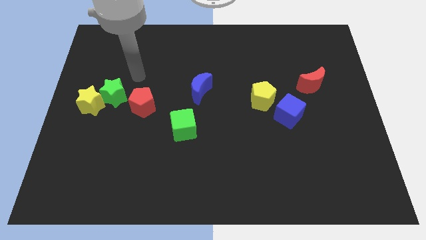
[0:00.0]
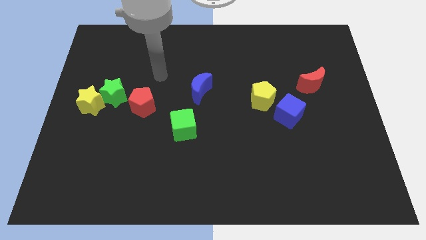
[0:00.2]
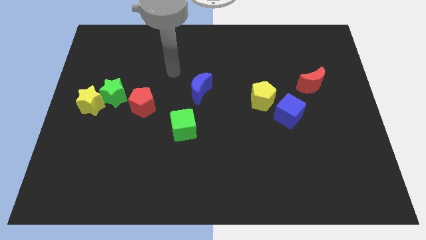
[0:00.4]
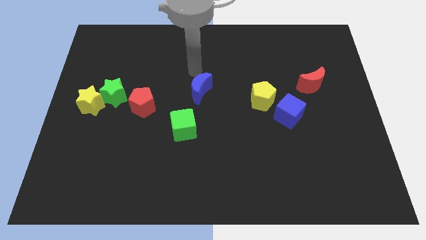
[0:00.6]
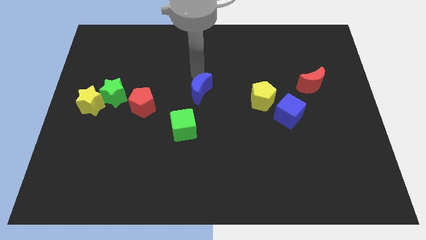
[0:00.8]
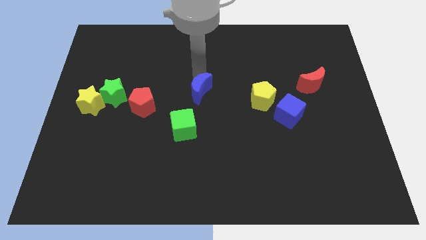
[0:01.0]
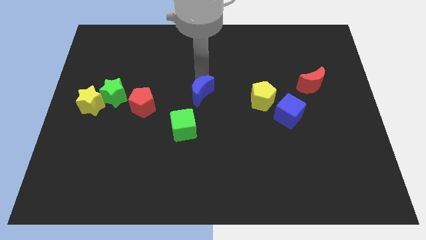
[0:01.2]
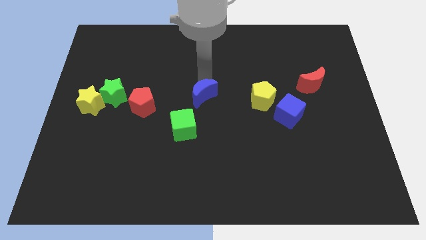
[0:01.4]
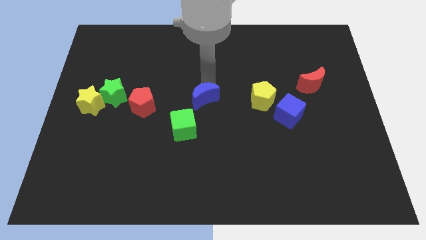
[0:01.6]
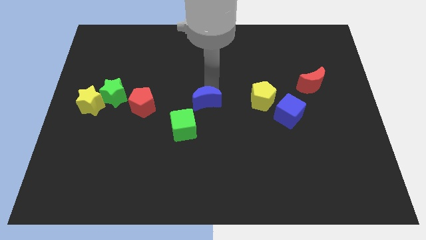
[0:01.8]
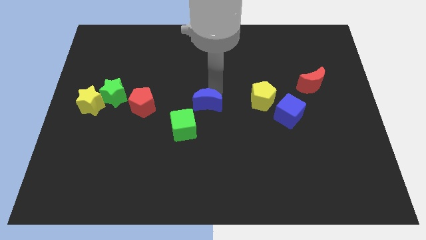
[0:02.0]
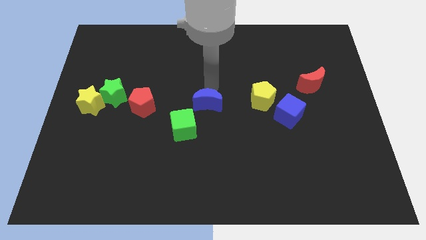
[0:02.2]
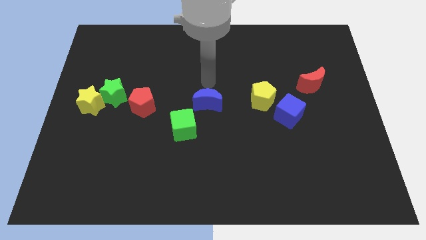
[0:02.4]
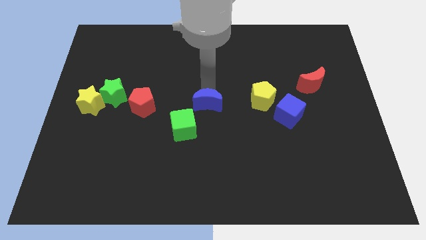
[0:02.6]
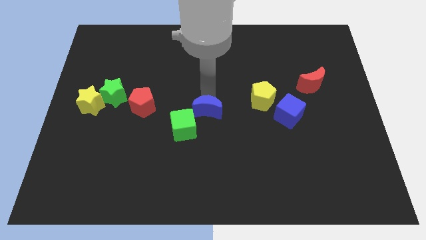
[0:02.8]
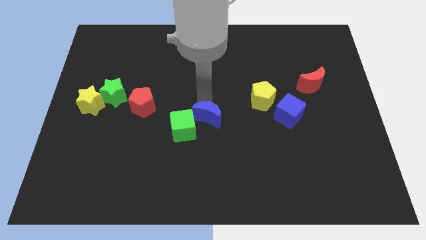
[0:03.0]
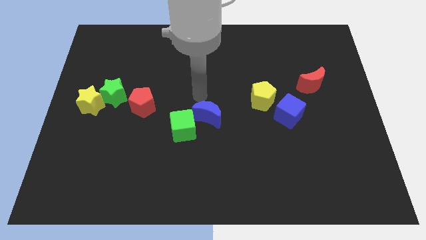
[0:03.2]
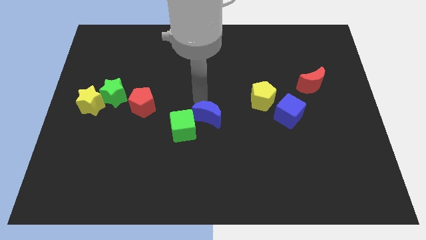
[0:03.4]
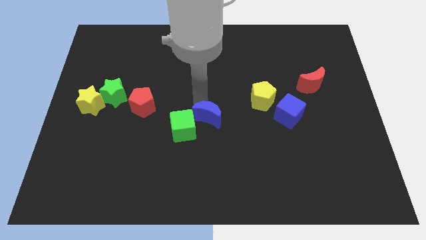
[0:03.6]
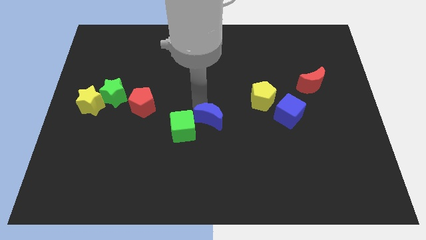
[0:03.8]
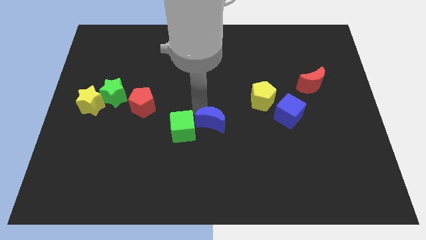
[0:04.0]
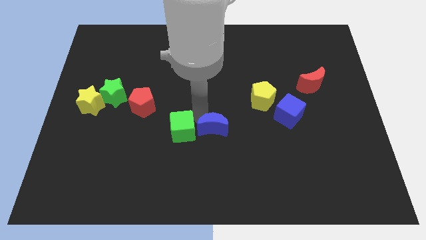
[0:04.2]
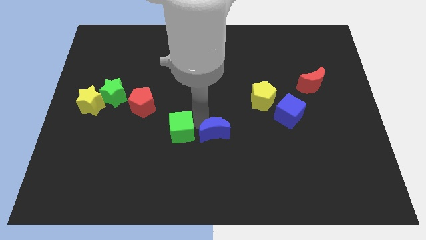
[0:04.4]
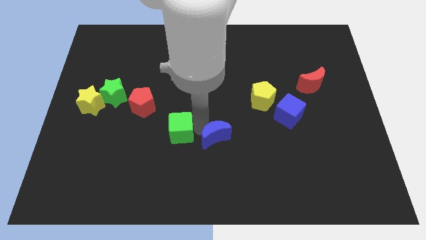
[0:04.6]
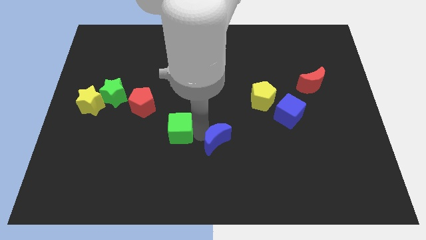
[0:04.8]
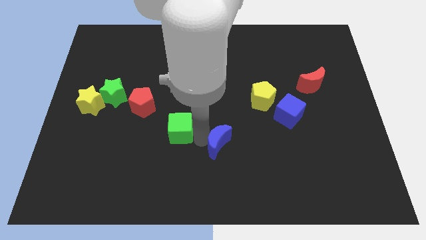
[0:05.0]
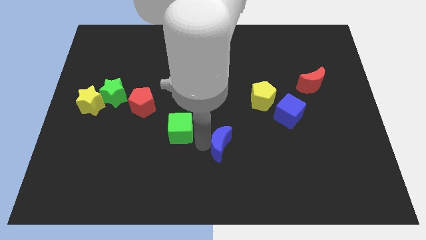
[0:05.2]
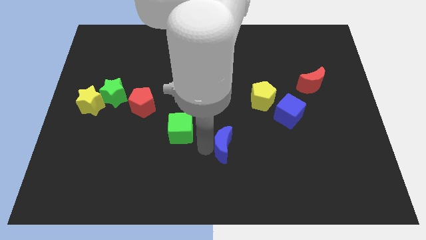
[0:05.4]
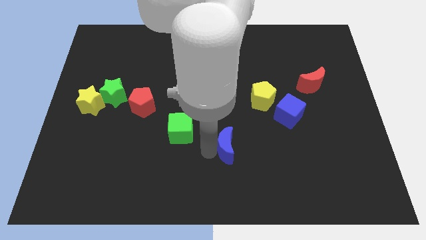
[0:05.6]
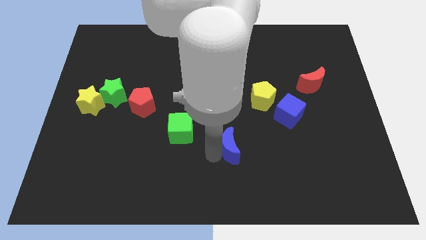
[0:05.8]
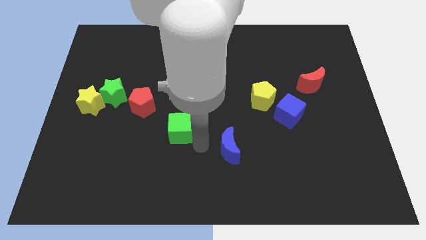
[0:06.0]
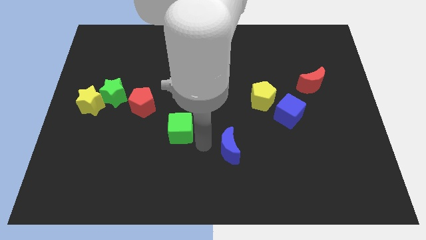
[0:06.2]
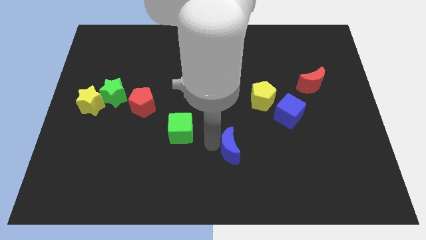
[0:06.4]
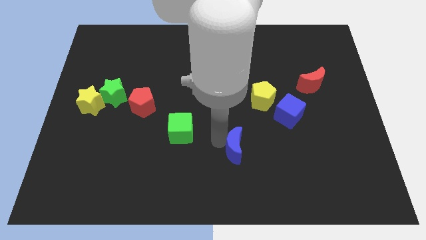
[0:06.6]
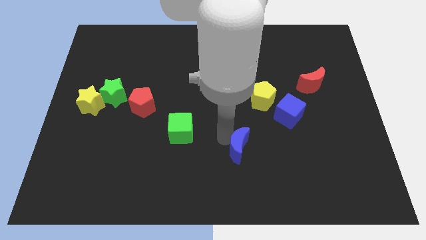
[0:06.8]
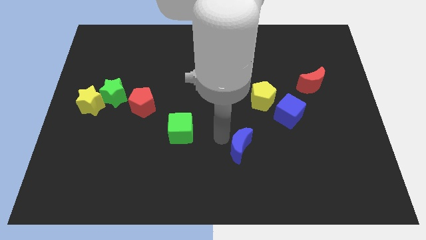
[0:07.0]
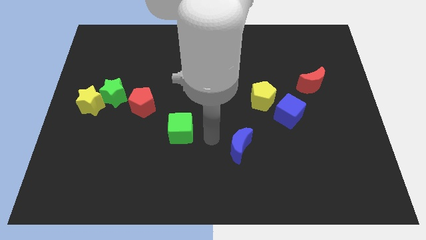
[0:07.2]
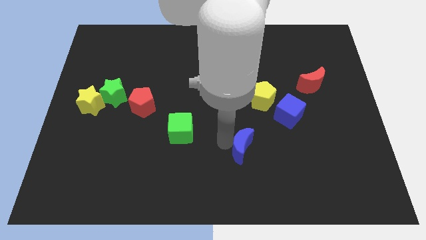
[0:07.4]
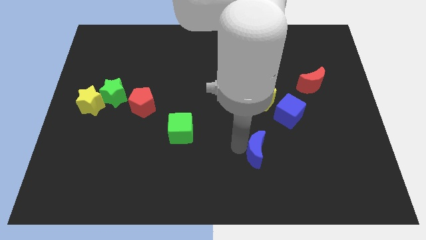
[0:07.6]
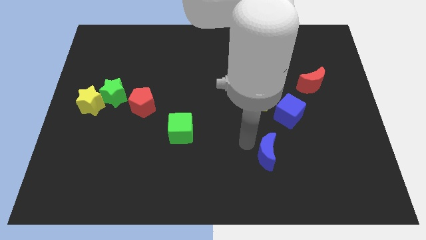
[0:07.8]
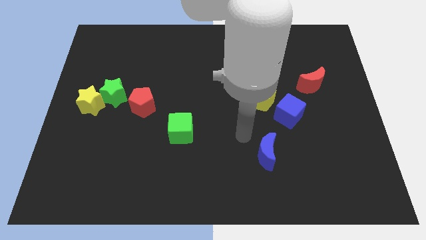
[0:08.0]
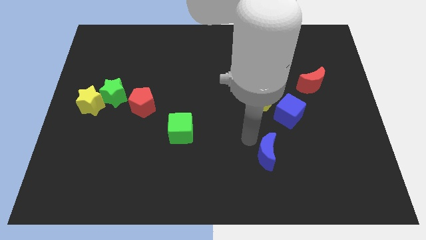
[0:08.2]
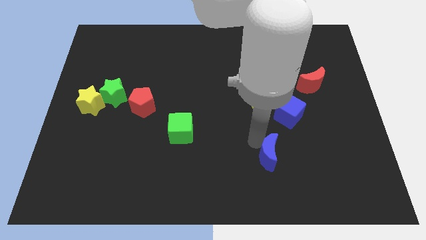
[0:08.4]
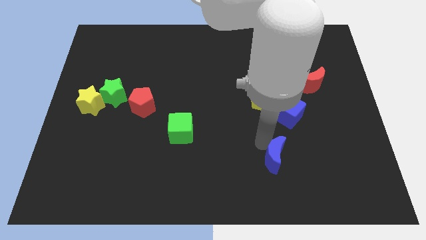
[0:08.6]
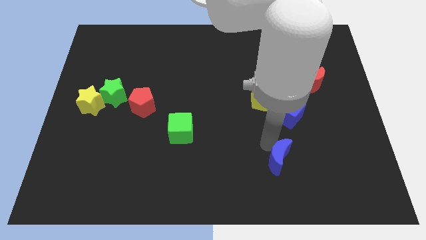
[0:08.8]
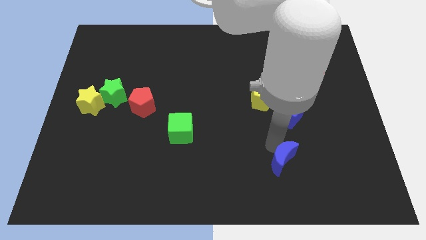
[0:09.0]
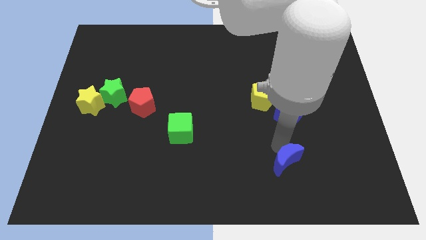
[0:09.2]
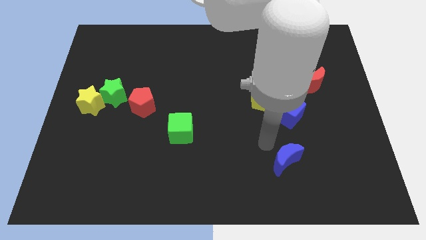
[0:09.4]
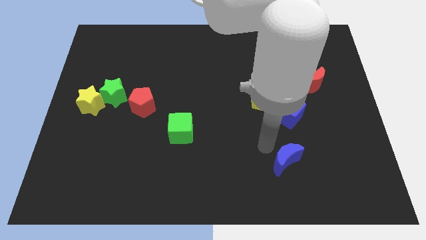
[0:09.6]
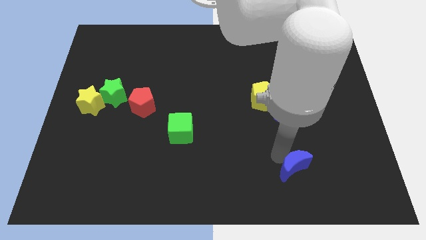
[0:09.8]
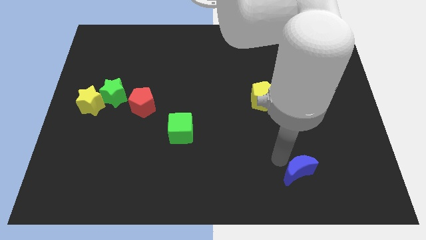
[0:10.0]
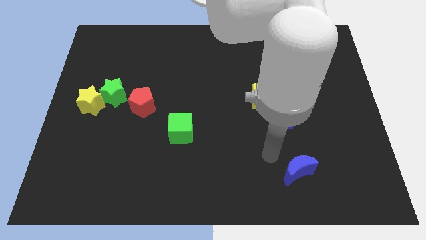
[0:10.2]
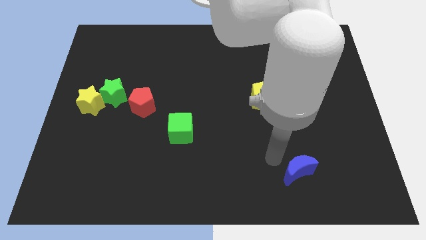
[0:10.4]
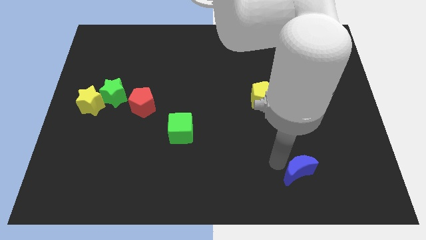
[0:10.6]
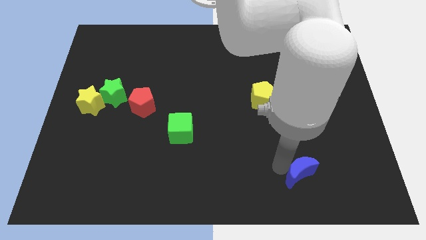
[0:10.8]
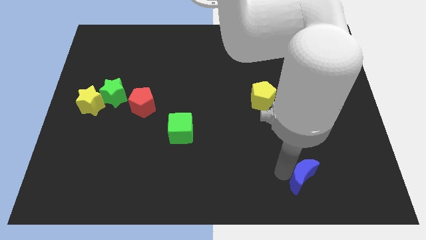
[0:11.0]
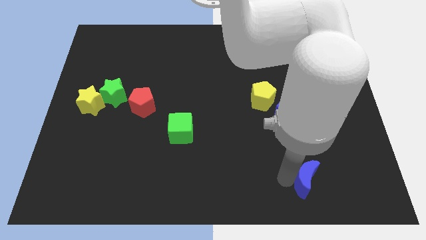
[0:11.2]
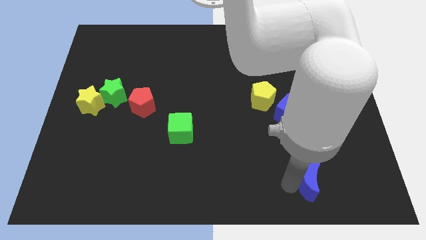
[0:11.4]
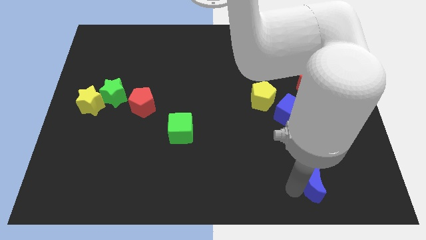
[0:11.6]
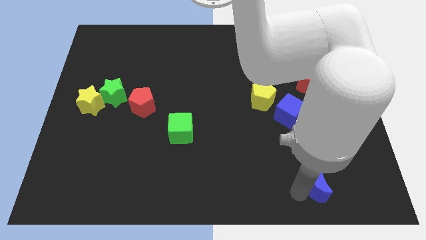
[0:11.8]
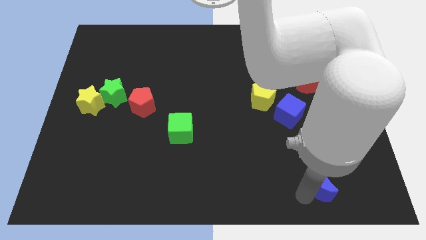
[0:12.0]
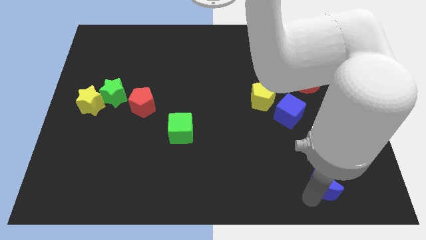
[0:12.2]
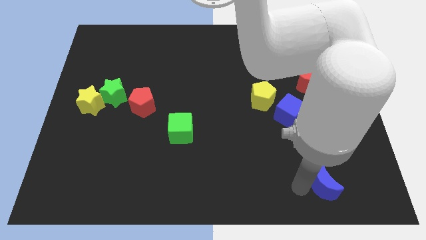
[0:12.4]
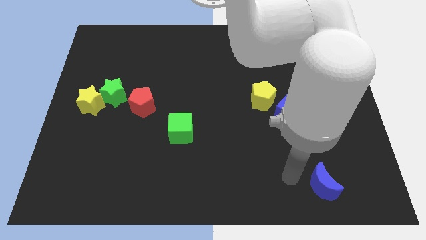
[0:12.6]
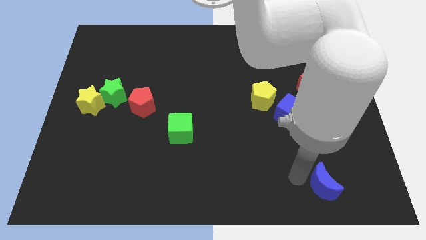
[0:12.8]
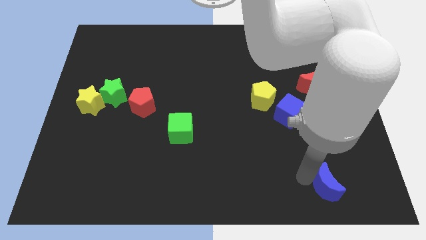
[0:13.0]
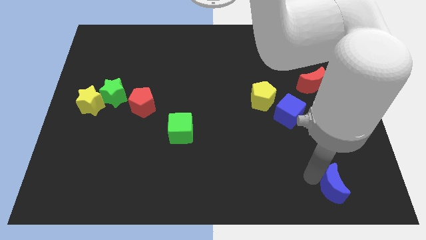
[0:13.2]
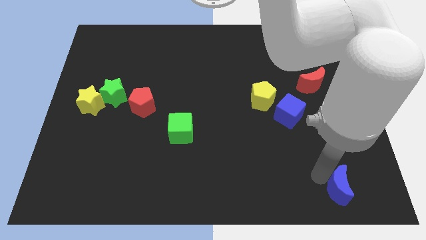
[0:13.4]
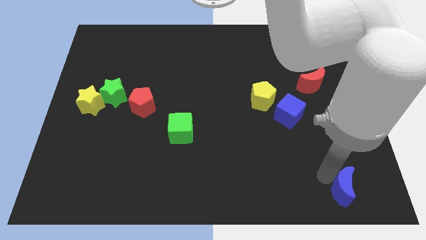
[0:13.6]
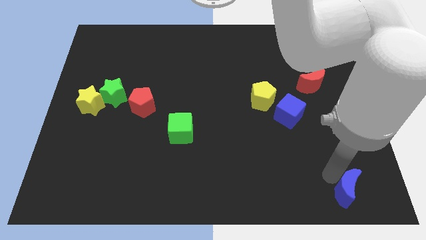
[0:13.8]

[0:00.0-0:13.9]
move the blue moon to the bottom right of the board
